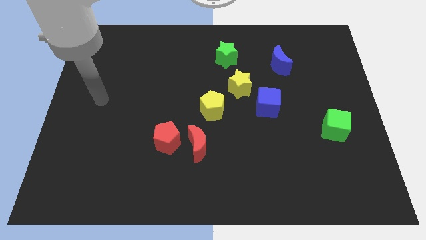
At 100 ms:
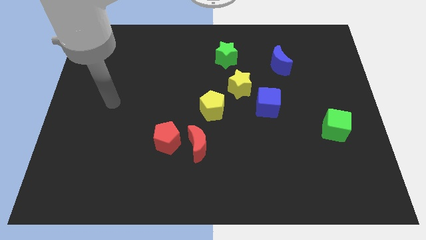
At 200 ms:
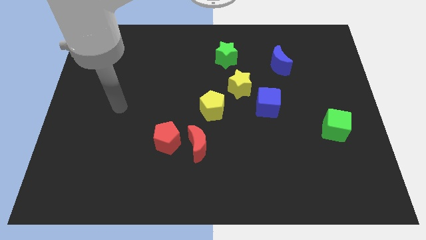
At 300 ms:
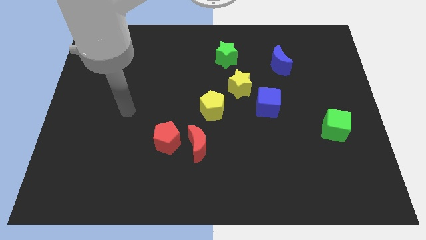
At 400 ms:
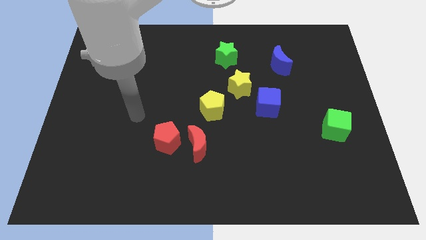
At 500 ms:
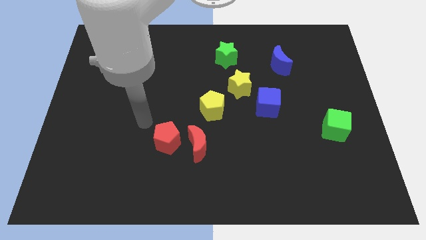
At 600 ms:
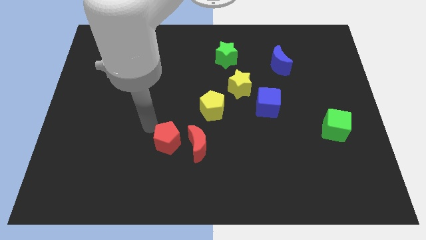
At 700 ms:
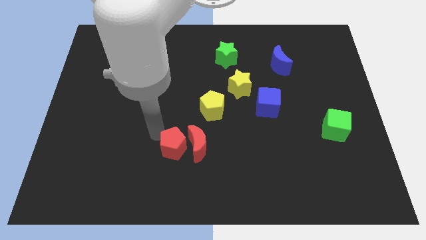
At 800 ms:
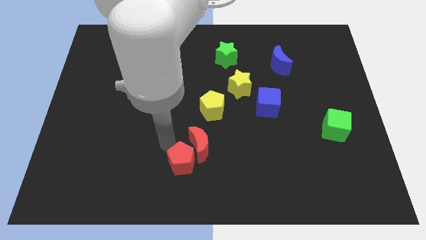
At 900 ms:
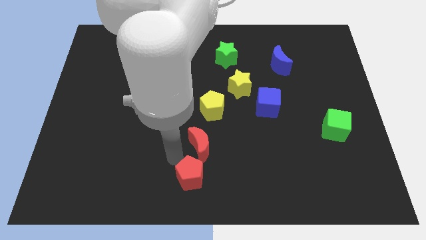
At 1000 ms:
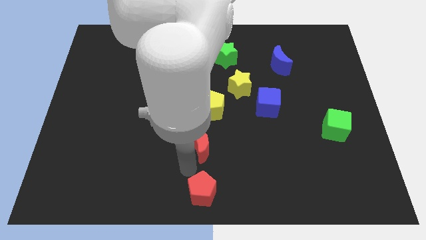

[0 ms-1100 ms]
pull the red moon apart from the red pentagon

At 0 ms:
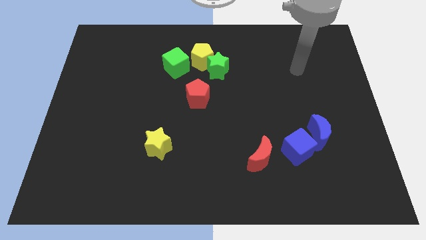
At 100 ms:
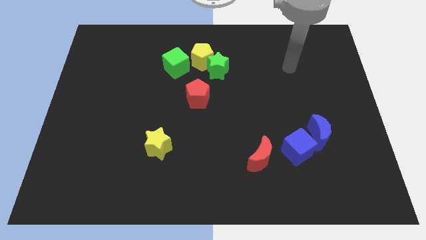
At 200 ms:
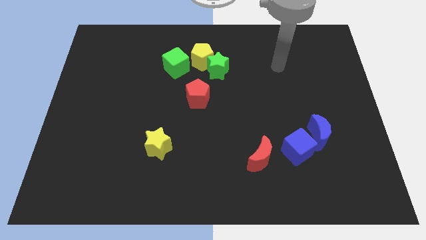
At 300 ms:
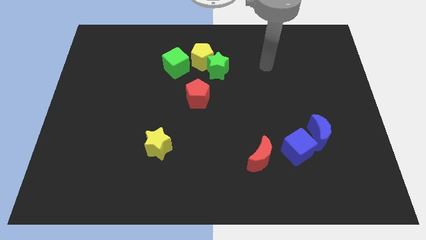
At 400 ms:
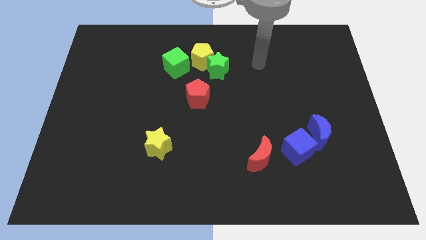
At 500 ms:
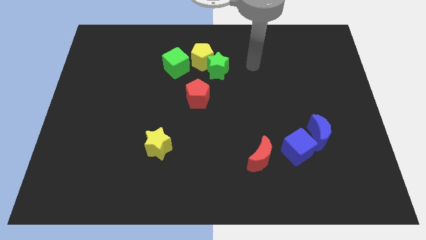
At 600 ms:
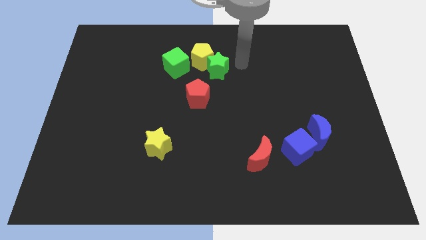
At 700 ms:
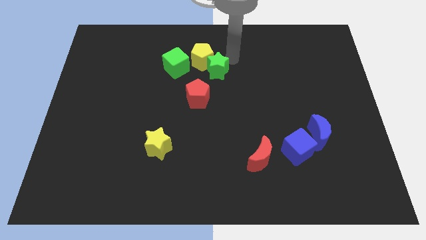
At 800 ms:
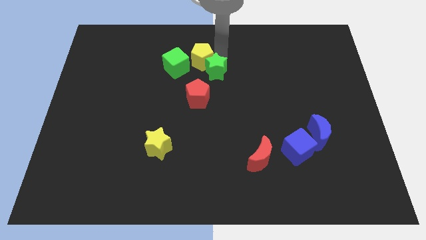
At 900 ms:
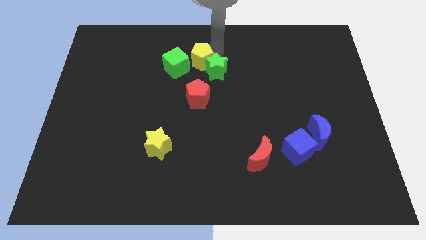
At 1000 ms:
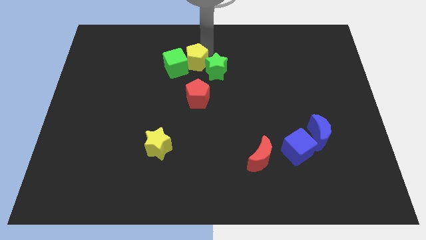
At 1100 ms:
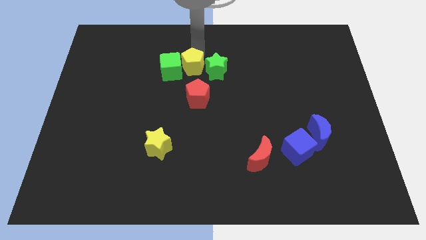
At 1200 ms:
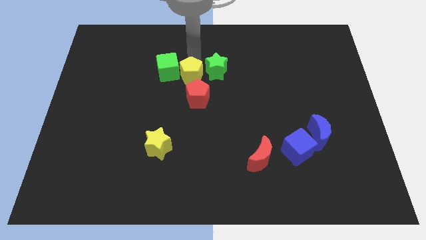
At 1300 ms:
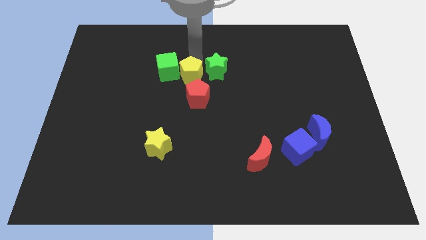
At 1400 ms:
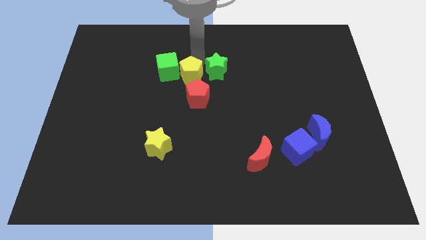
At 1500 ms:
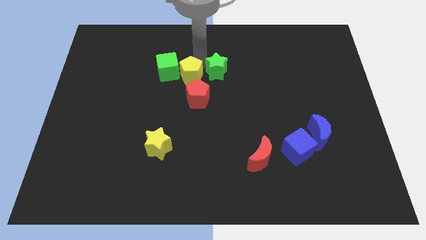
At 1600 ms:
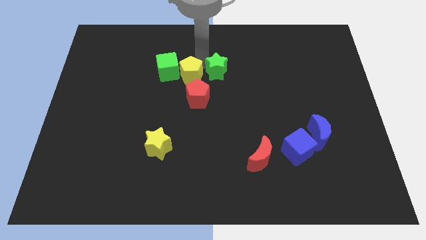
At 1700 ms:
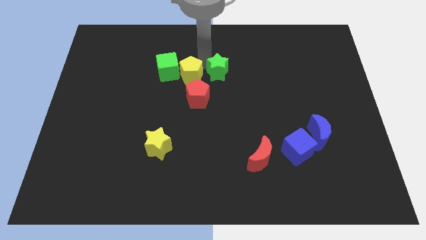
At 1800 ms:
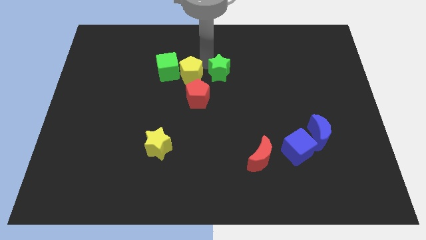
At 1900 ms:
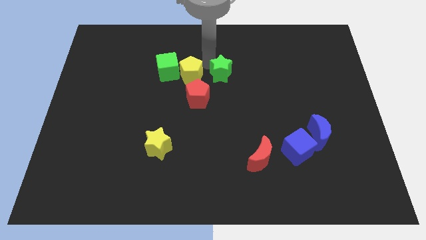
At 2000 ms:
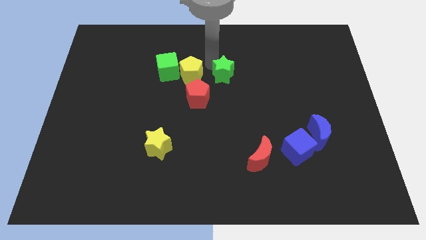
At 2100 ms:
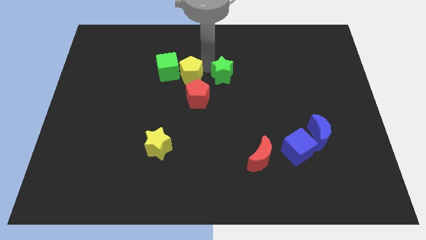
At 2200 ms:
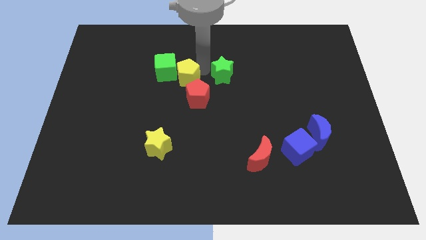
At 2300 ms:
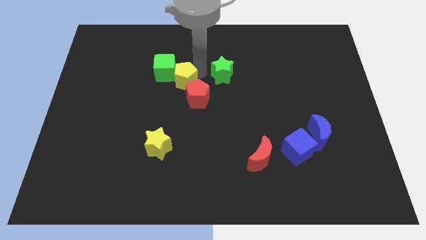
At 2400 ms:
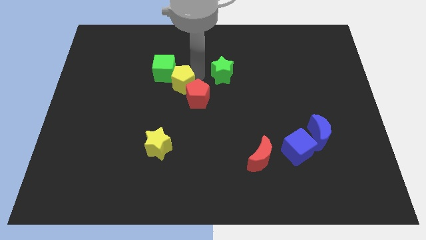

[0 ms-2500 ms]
separate the green star from the yellow pentagon

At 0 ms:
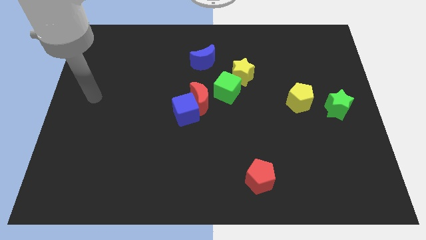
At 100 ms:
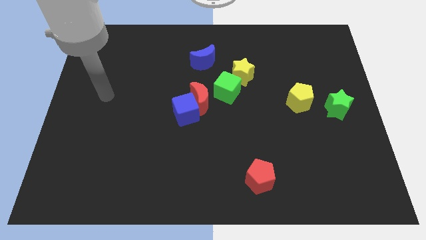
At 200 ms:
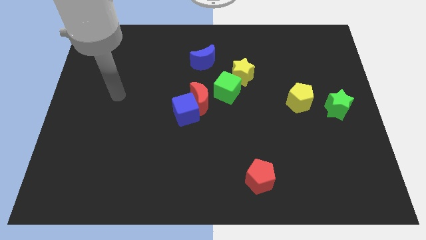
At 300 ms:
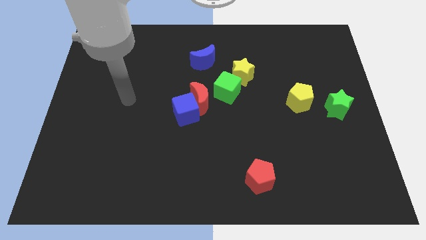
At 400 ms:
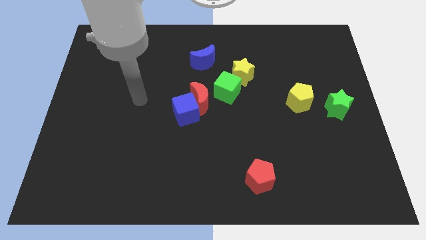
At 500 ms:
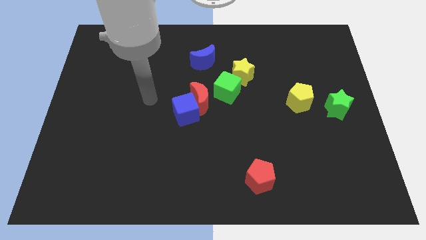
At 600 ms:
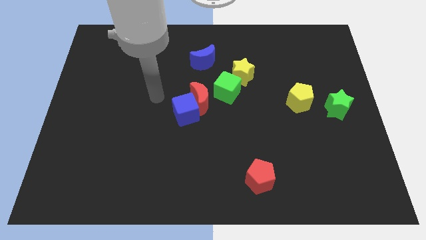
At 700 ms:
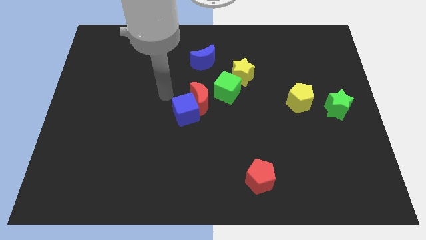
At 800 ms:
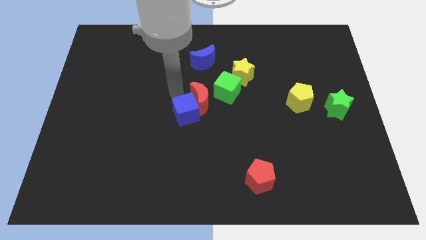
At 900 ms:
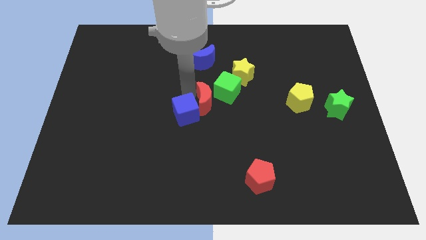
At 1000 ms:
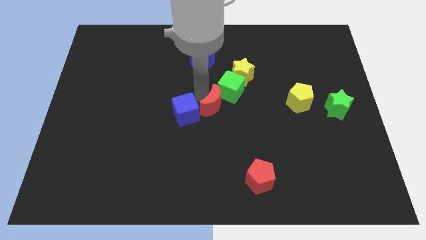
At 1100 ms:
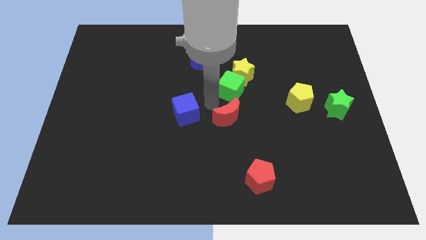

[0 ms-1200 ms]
move the blue cube away from the red moon

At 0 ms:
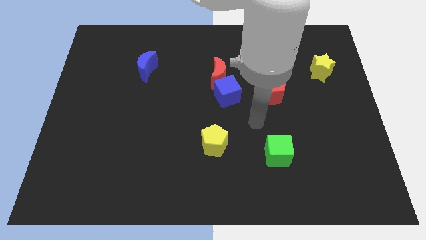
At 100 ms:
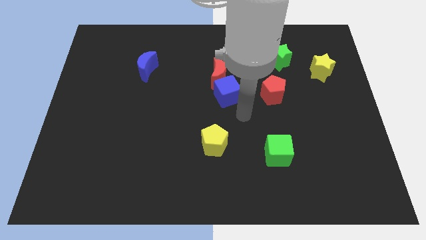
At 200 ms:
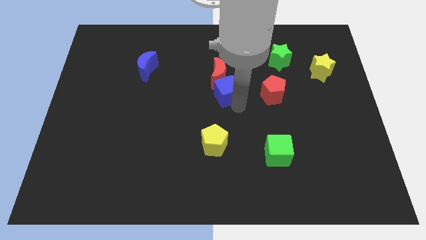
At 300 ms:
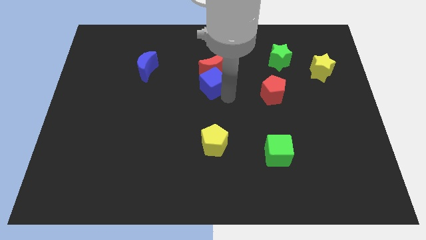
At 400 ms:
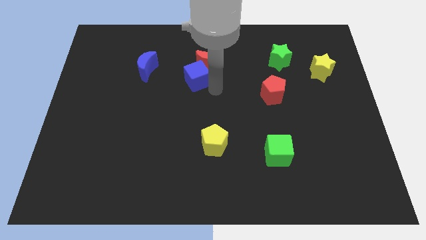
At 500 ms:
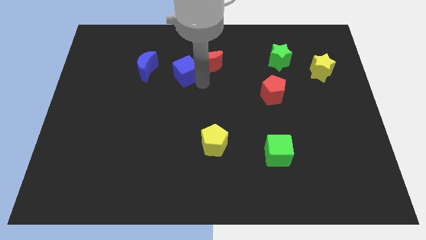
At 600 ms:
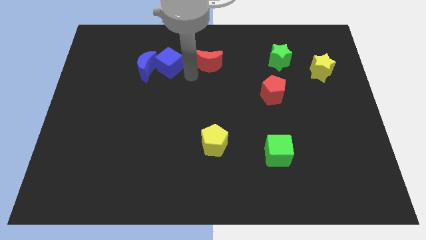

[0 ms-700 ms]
pull the red moon apart from the blue cube

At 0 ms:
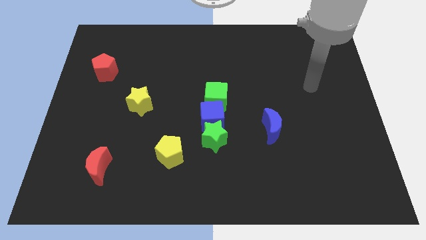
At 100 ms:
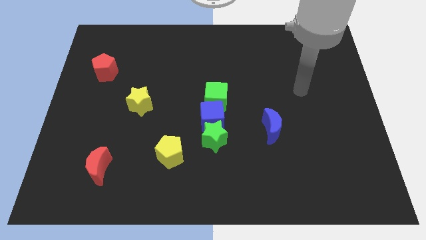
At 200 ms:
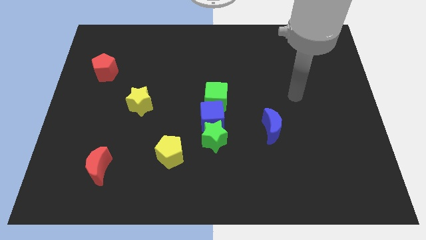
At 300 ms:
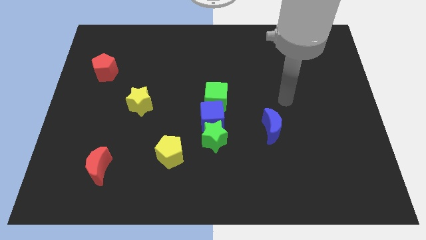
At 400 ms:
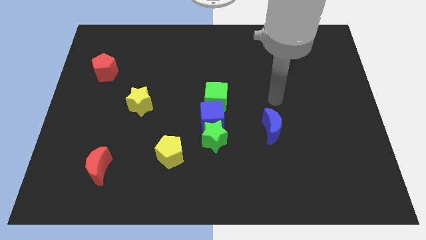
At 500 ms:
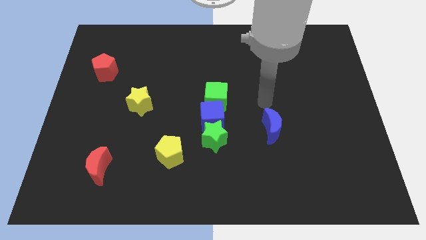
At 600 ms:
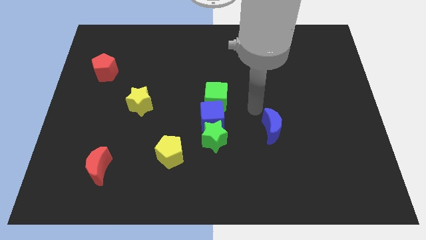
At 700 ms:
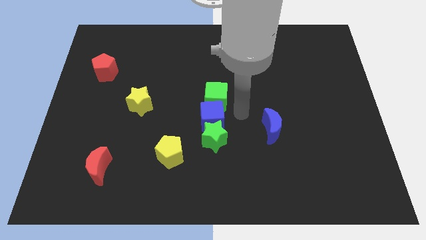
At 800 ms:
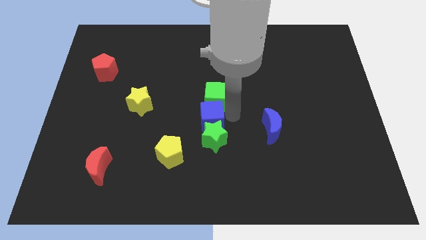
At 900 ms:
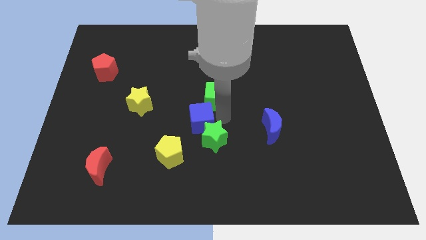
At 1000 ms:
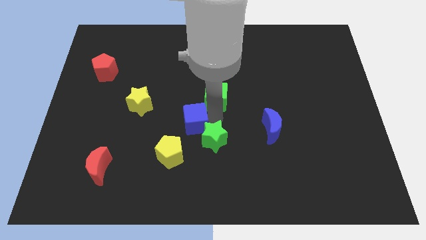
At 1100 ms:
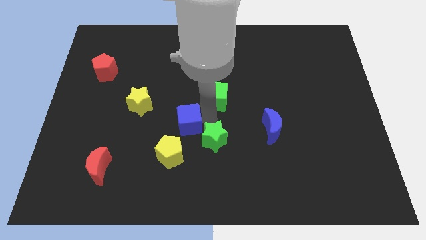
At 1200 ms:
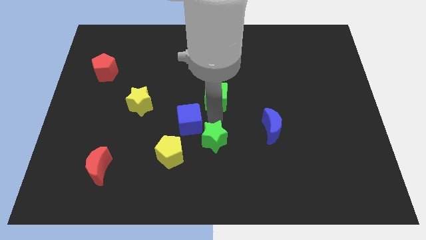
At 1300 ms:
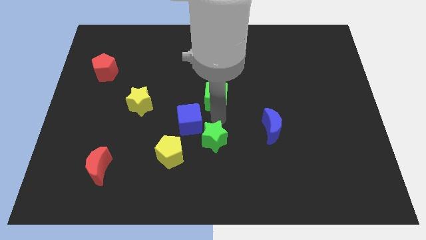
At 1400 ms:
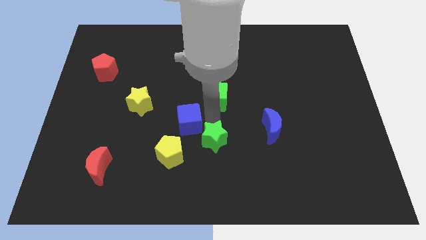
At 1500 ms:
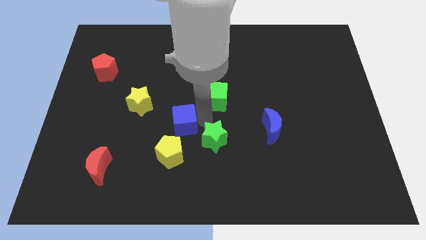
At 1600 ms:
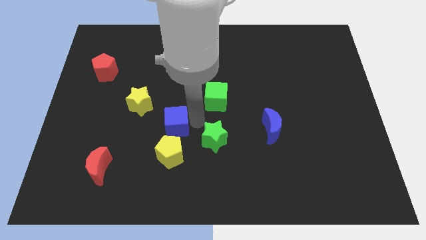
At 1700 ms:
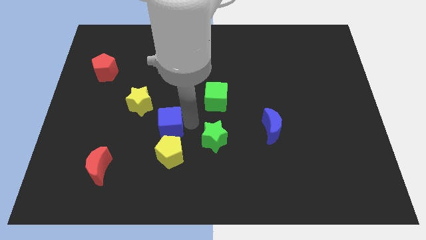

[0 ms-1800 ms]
pull the blue cube apart from the green star and green cube

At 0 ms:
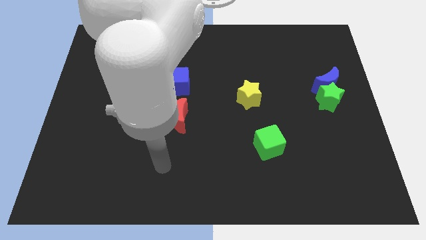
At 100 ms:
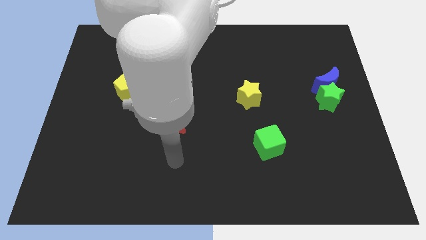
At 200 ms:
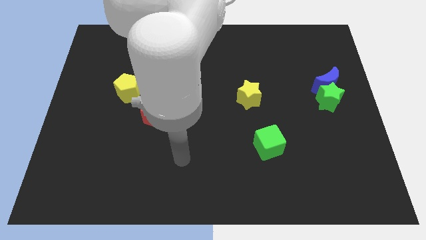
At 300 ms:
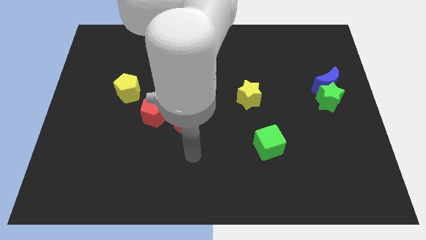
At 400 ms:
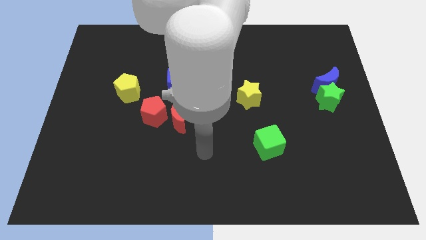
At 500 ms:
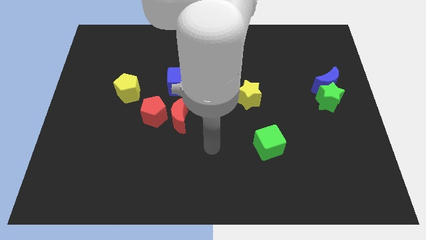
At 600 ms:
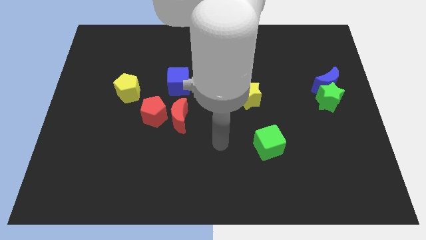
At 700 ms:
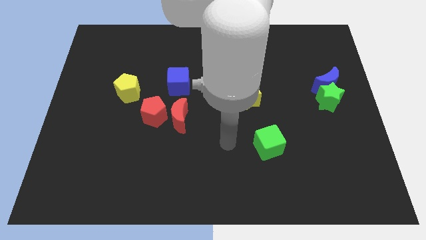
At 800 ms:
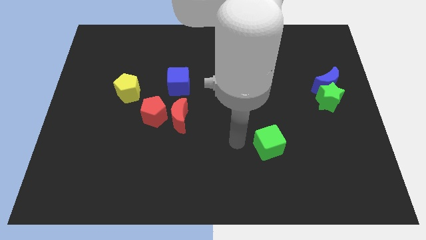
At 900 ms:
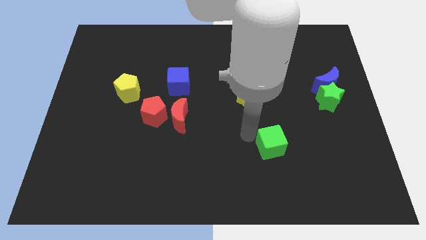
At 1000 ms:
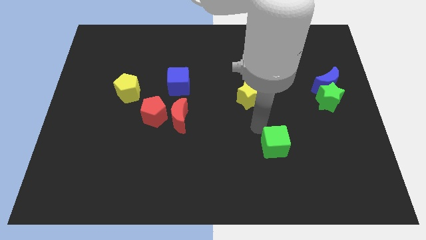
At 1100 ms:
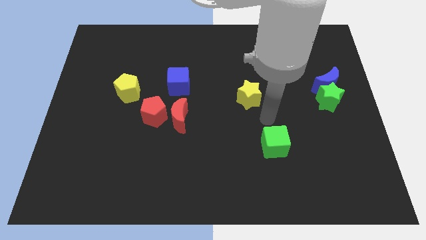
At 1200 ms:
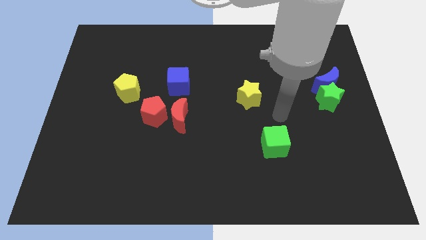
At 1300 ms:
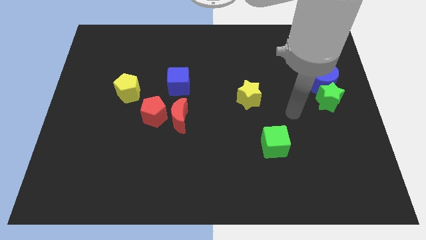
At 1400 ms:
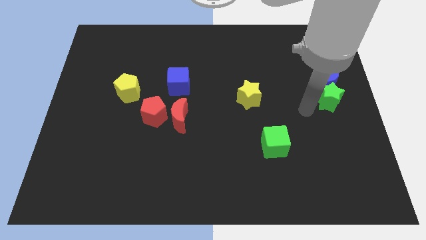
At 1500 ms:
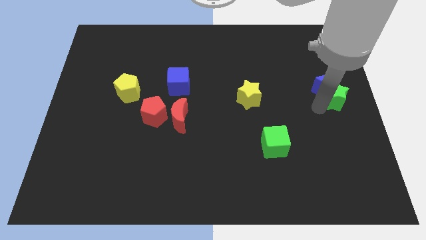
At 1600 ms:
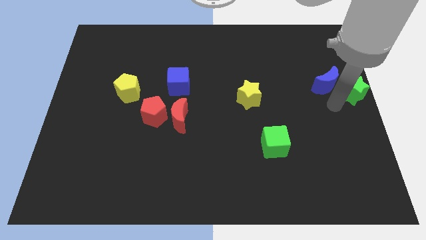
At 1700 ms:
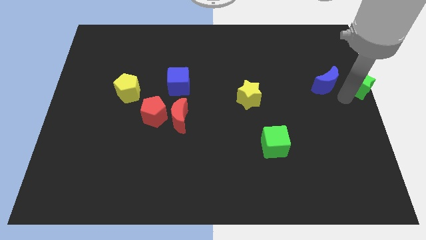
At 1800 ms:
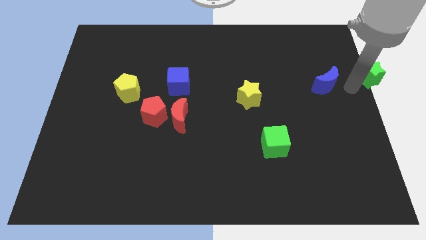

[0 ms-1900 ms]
separate the blue moon from the green star
